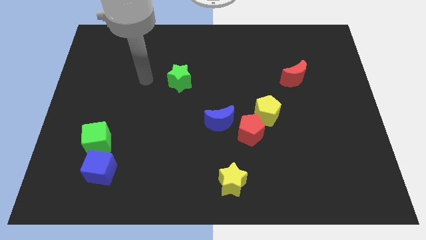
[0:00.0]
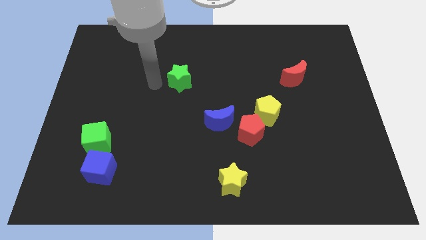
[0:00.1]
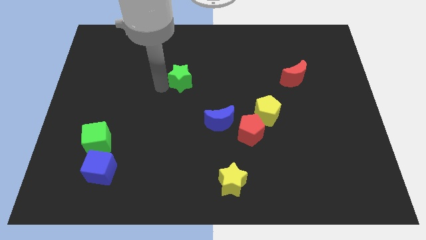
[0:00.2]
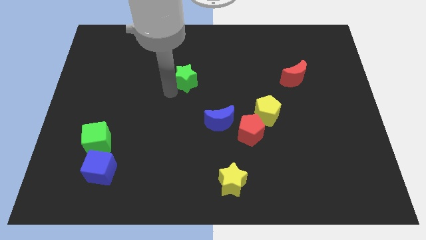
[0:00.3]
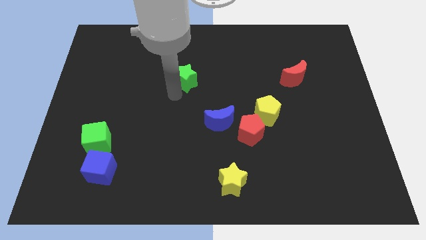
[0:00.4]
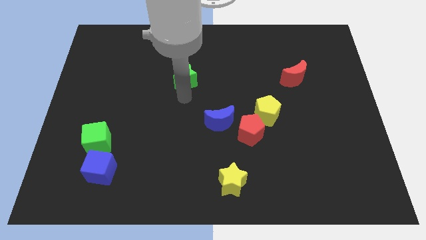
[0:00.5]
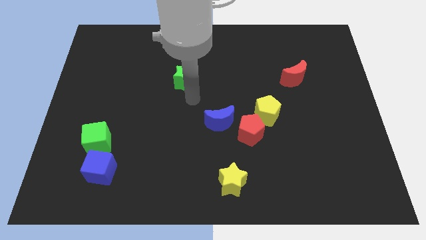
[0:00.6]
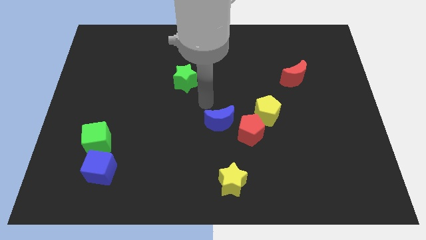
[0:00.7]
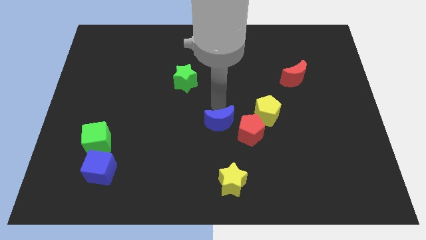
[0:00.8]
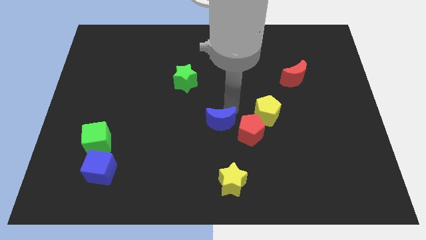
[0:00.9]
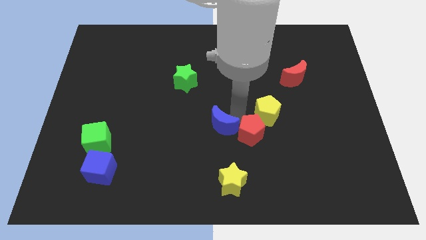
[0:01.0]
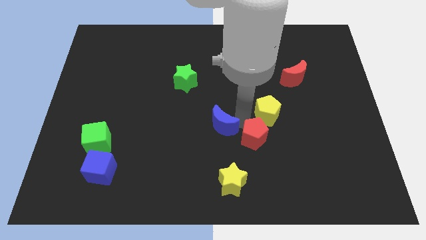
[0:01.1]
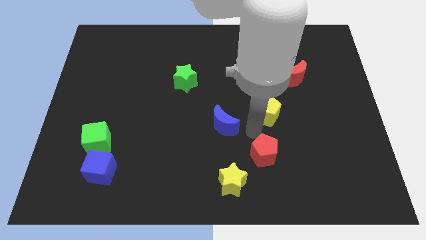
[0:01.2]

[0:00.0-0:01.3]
separate the yellow pentagon from the red pentagon

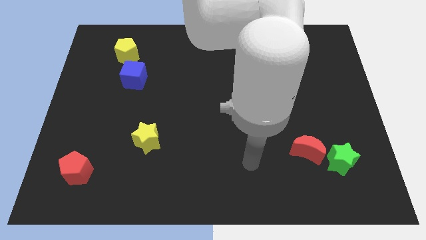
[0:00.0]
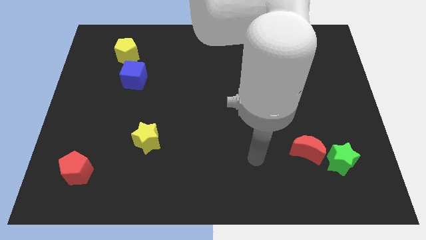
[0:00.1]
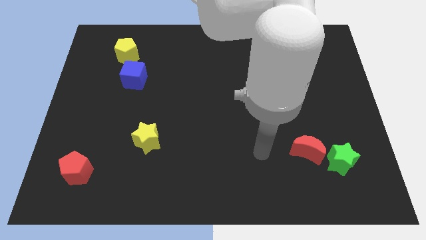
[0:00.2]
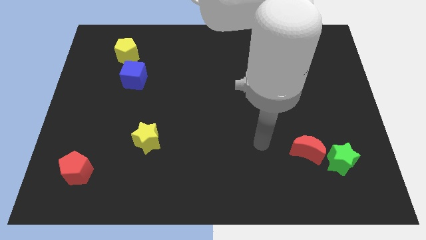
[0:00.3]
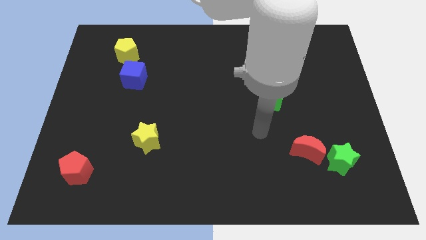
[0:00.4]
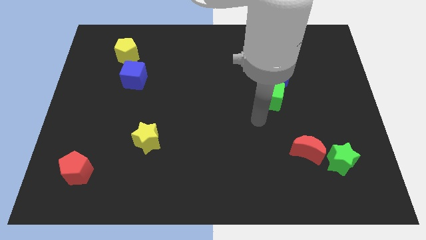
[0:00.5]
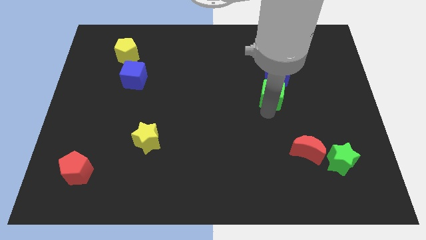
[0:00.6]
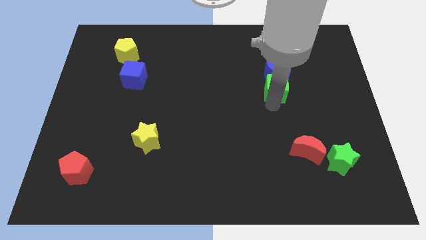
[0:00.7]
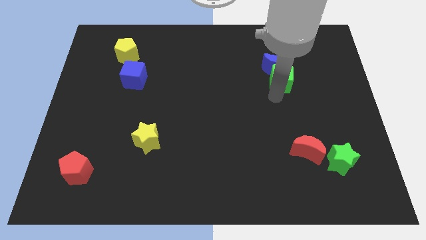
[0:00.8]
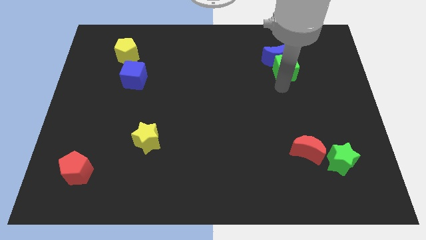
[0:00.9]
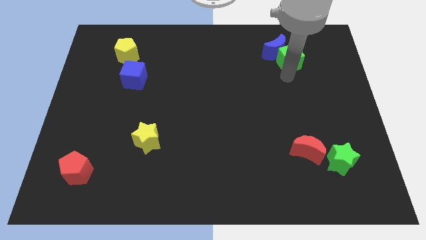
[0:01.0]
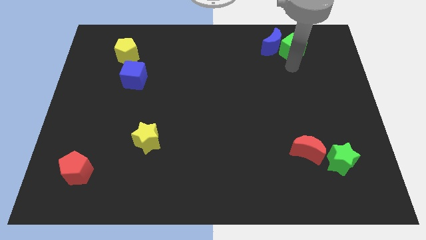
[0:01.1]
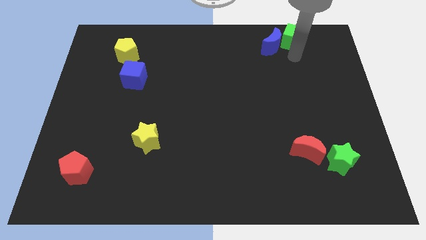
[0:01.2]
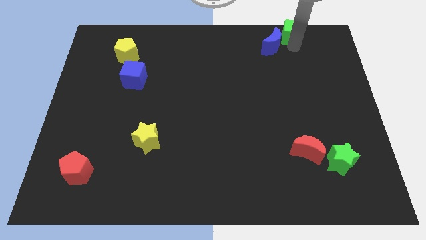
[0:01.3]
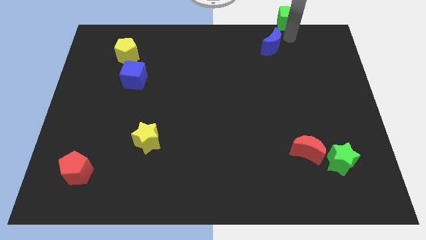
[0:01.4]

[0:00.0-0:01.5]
move the blue moon away from the green cube

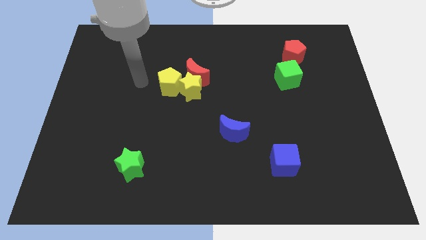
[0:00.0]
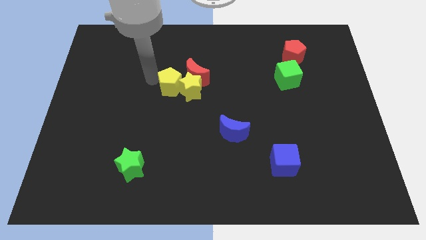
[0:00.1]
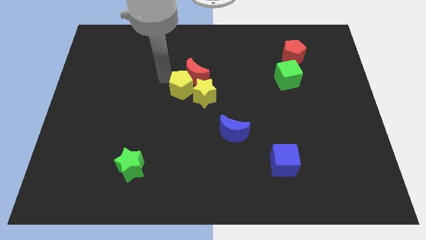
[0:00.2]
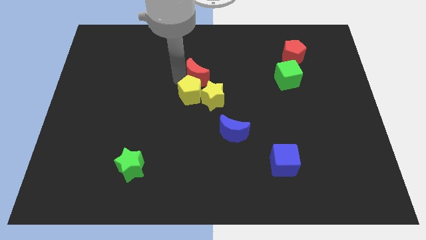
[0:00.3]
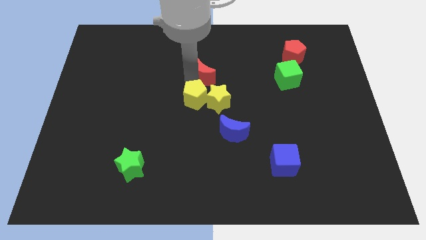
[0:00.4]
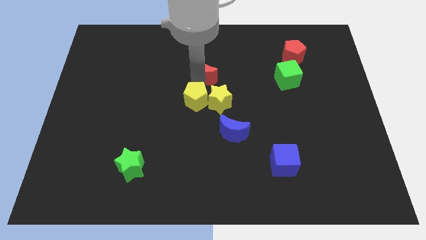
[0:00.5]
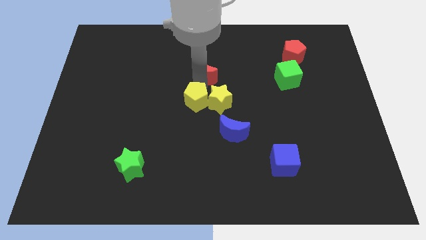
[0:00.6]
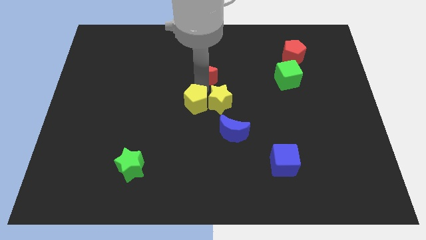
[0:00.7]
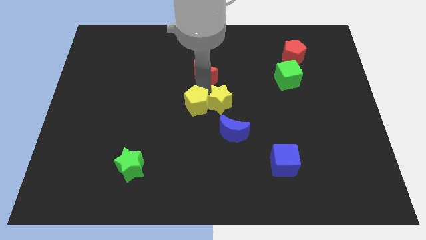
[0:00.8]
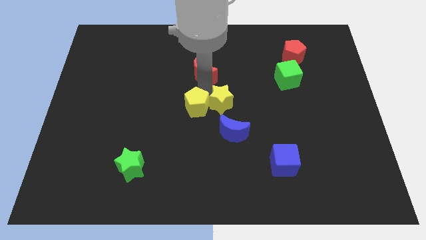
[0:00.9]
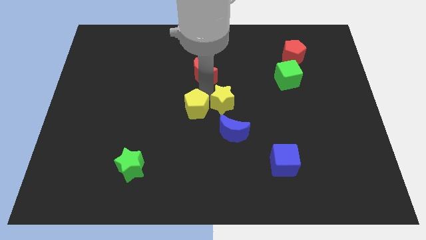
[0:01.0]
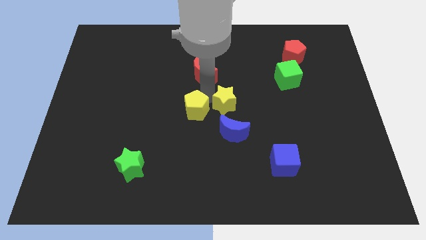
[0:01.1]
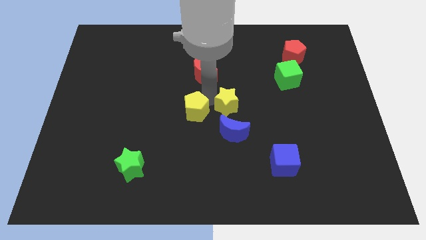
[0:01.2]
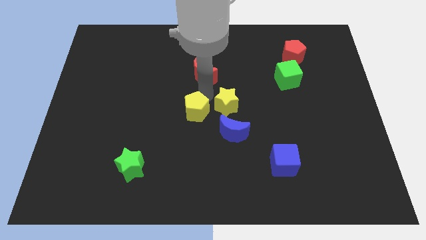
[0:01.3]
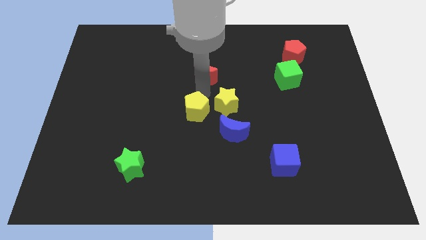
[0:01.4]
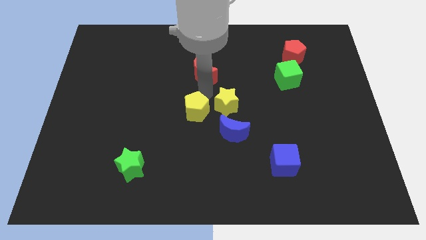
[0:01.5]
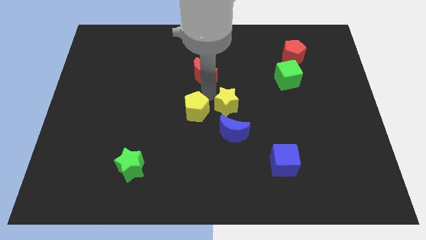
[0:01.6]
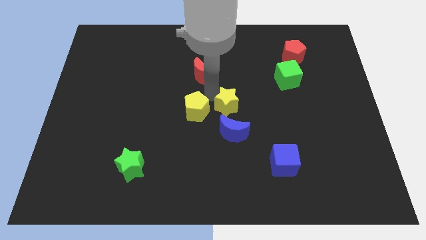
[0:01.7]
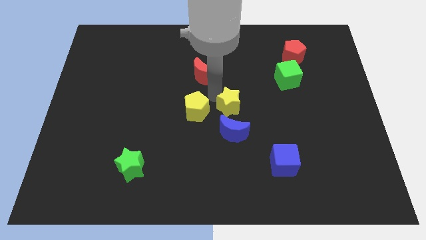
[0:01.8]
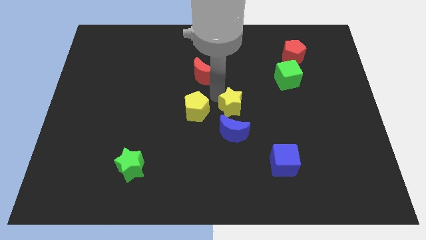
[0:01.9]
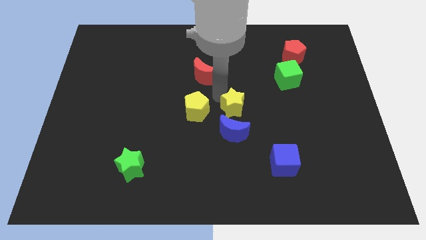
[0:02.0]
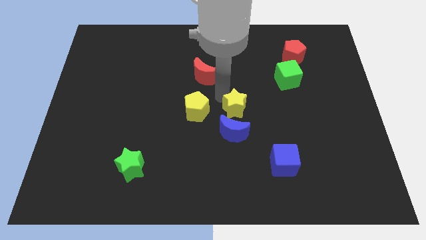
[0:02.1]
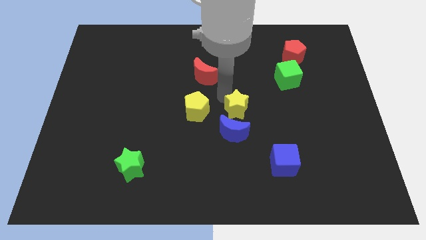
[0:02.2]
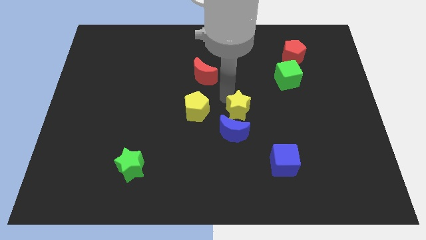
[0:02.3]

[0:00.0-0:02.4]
move the yellow star away from the red moon and yellow pentagon

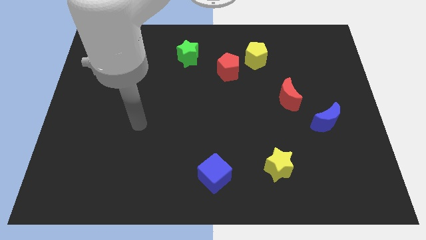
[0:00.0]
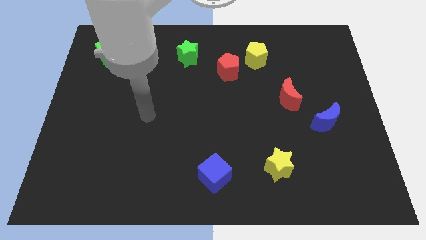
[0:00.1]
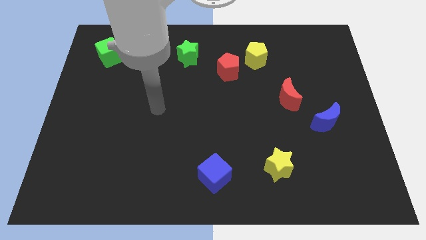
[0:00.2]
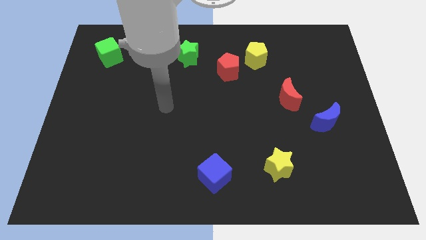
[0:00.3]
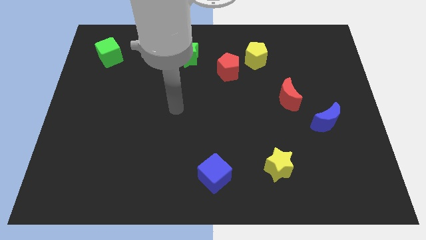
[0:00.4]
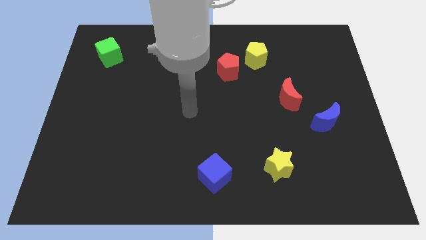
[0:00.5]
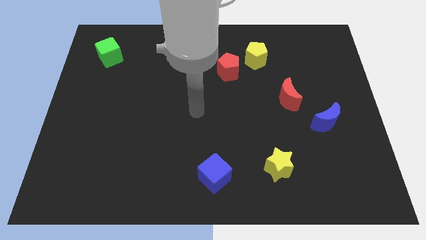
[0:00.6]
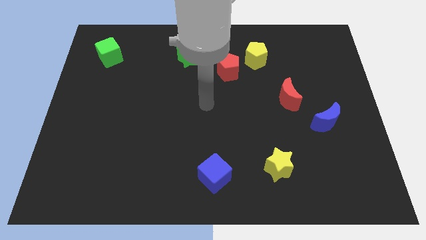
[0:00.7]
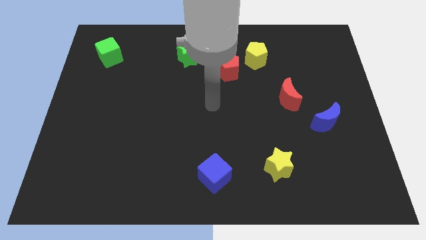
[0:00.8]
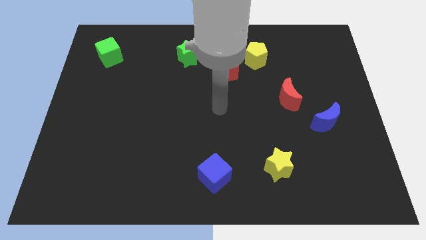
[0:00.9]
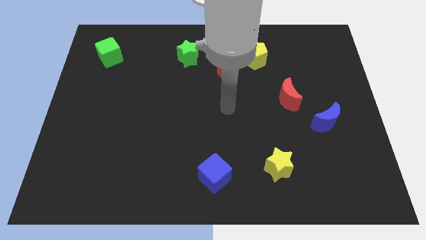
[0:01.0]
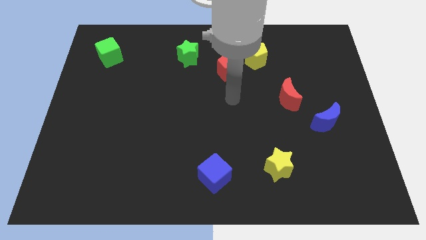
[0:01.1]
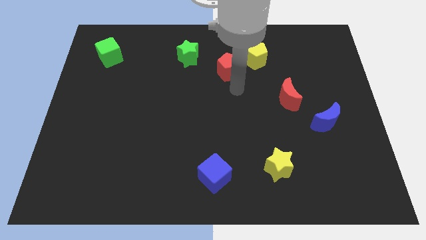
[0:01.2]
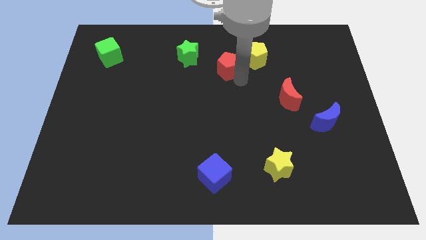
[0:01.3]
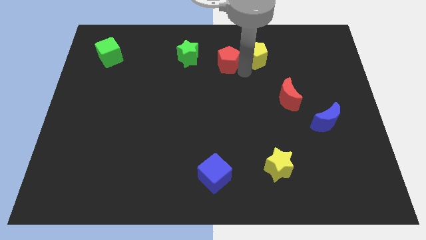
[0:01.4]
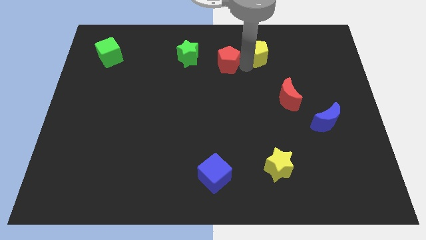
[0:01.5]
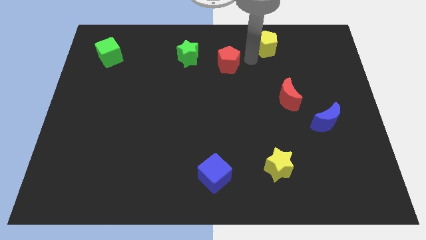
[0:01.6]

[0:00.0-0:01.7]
pull the red pentagon apart from the yellow pentagon

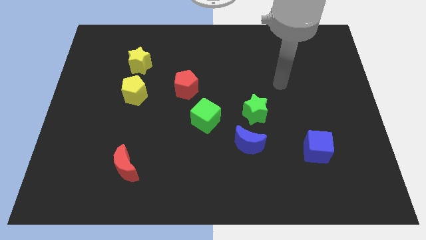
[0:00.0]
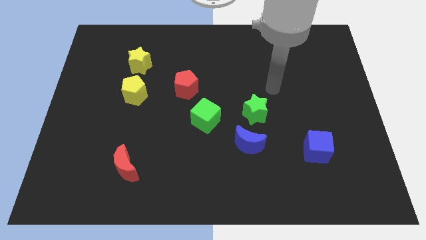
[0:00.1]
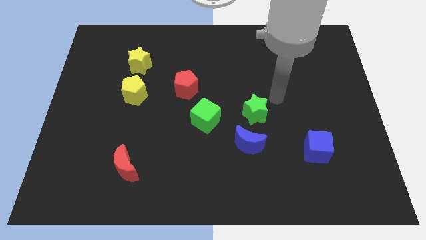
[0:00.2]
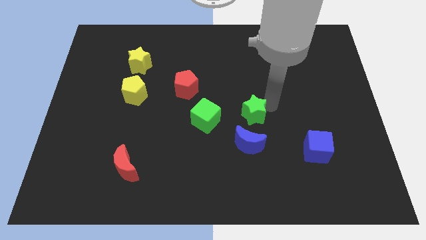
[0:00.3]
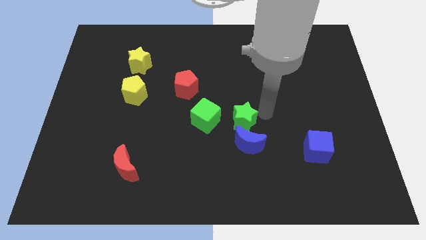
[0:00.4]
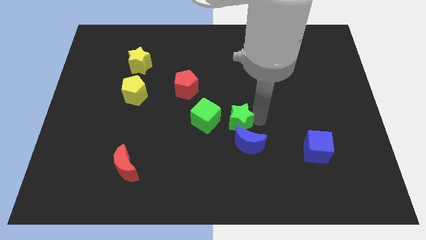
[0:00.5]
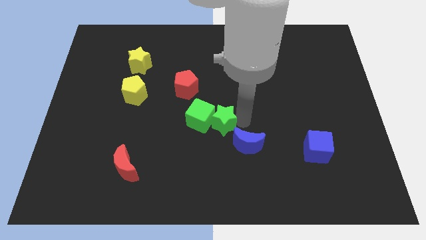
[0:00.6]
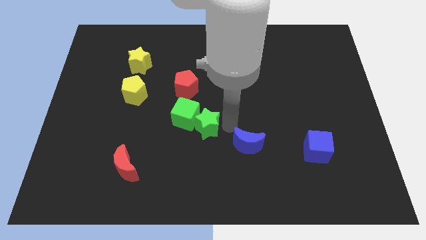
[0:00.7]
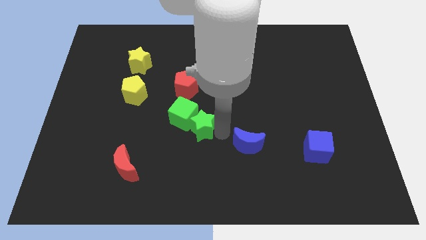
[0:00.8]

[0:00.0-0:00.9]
move the blue moon away from the green star

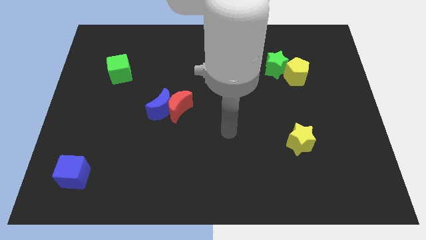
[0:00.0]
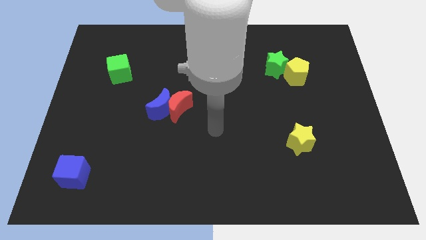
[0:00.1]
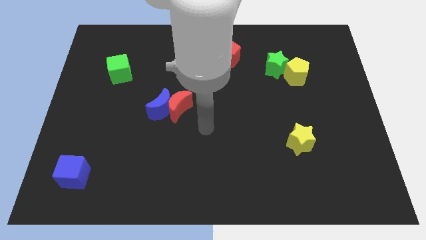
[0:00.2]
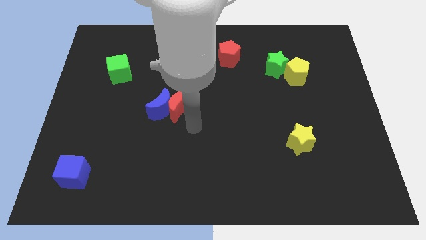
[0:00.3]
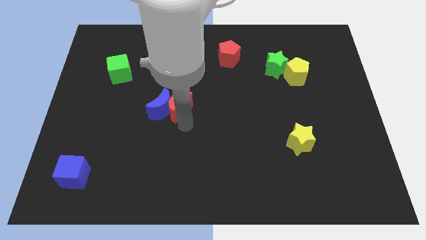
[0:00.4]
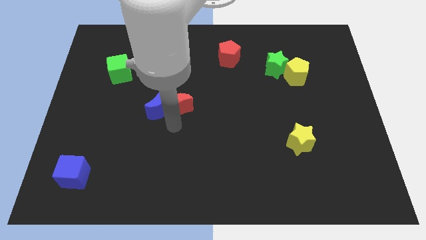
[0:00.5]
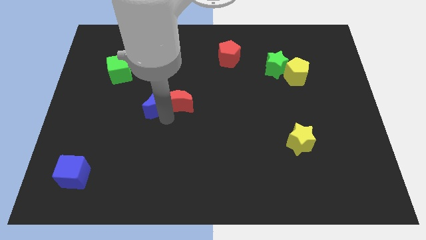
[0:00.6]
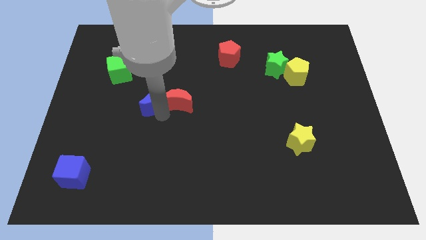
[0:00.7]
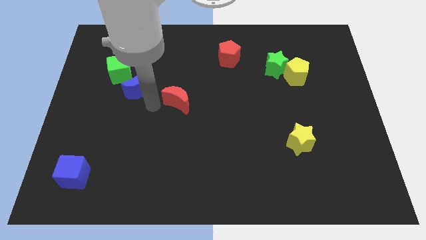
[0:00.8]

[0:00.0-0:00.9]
move the red moon away from the blue moon

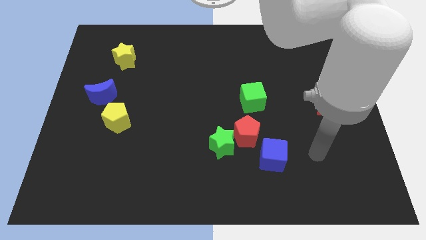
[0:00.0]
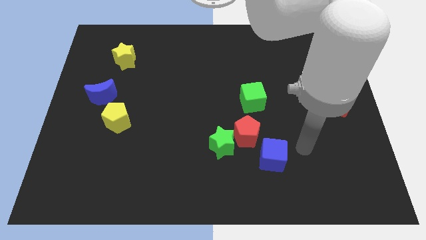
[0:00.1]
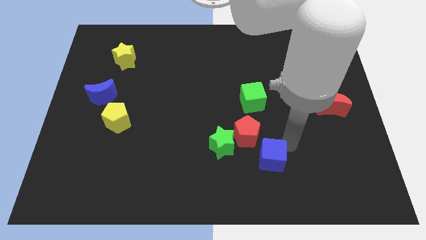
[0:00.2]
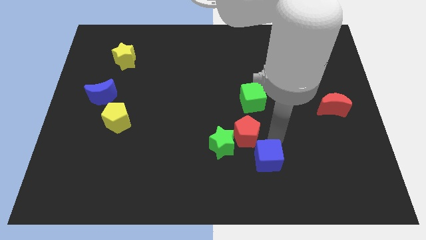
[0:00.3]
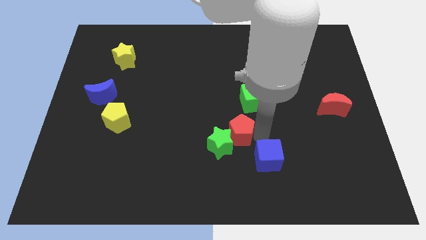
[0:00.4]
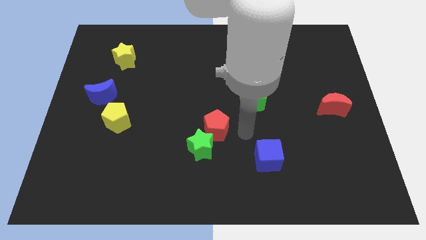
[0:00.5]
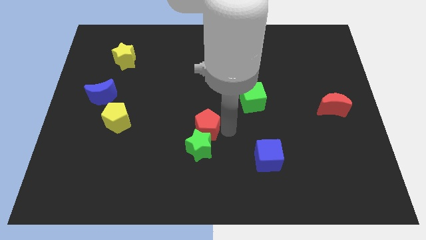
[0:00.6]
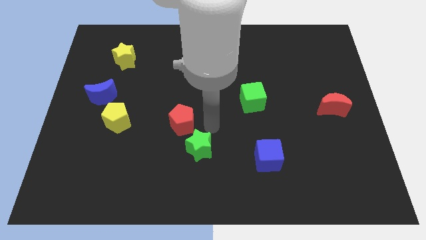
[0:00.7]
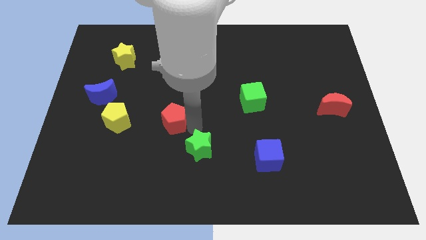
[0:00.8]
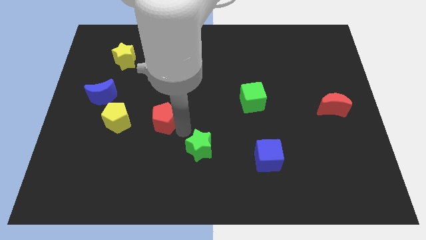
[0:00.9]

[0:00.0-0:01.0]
pull the green star apart from the red pentagon
